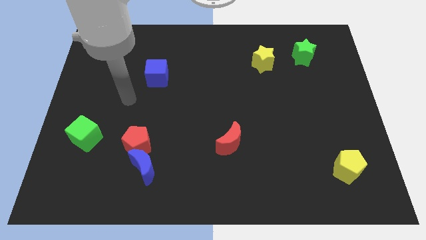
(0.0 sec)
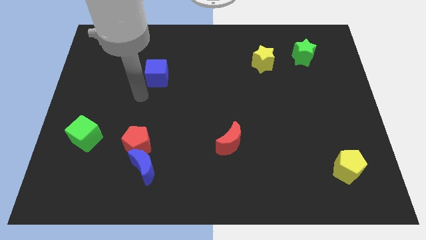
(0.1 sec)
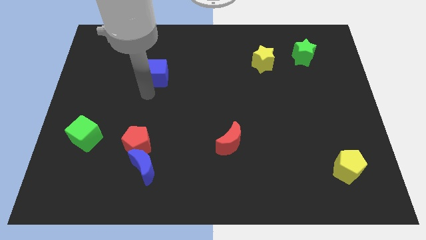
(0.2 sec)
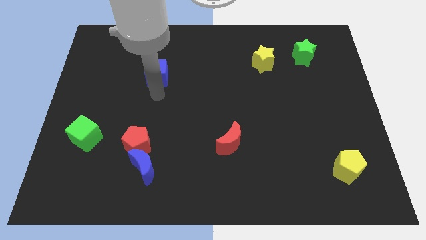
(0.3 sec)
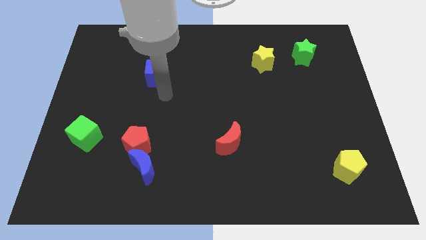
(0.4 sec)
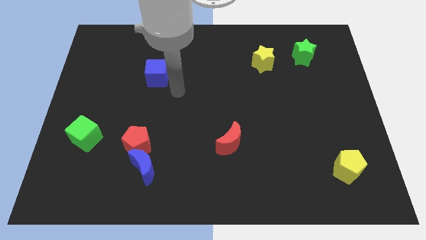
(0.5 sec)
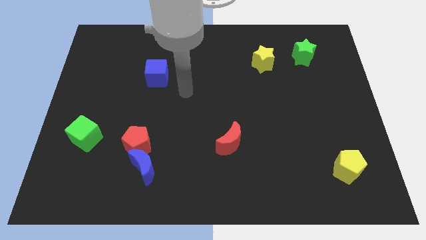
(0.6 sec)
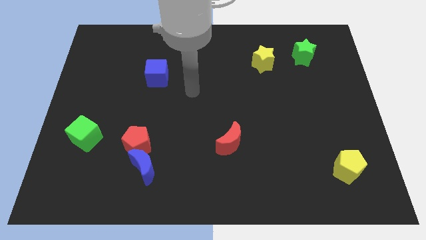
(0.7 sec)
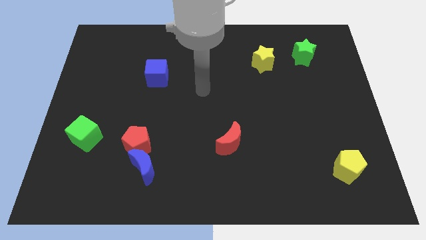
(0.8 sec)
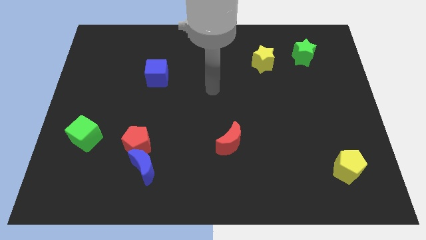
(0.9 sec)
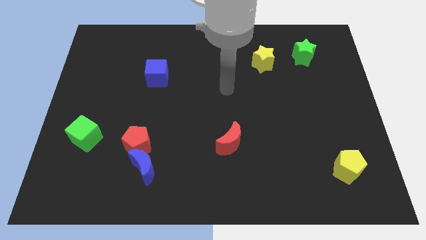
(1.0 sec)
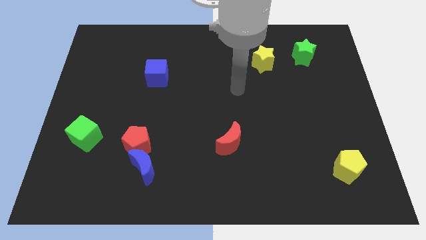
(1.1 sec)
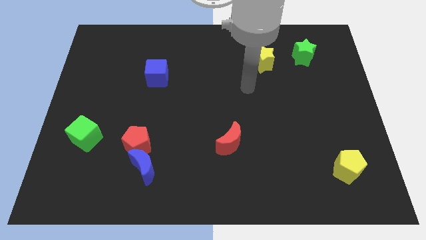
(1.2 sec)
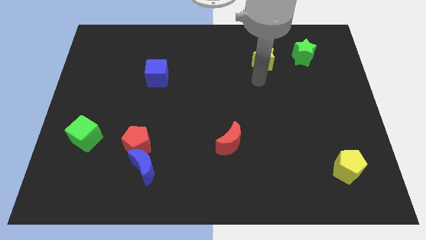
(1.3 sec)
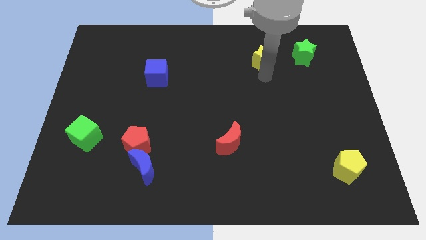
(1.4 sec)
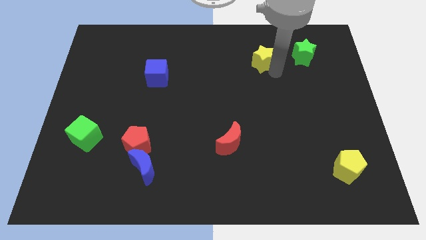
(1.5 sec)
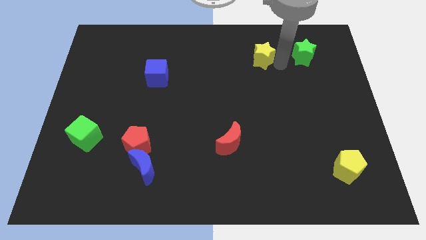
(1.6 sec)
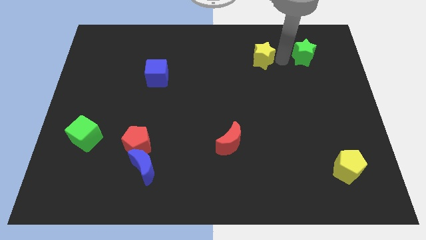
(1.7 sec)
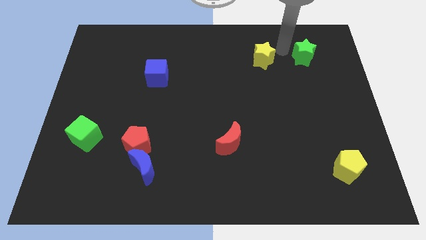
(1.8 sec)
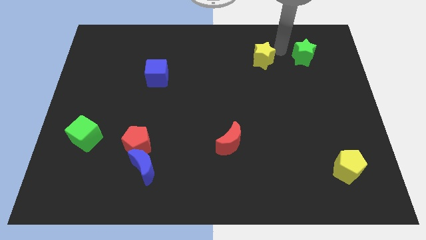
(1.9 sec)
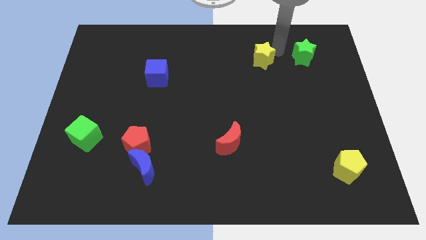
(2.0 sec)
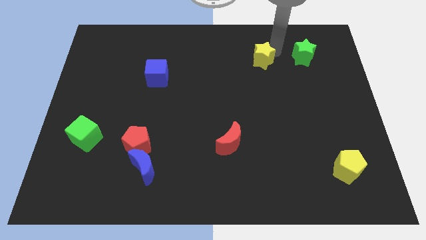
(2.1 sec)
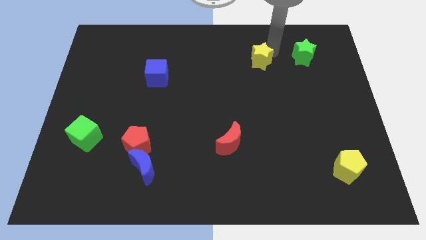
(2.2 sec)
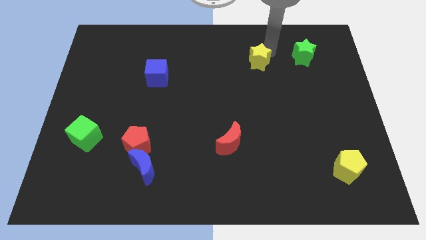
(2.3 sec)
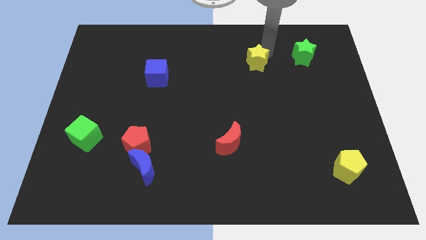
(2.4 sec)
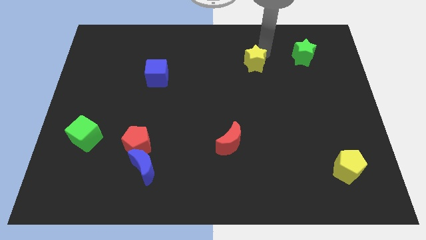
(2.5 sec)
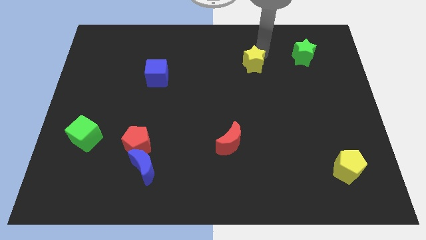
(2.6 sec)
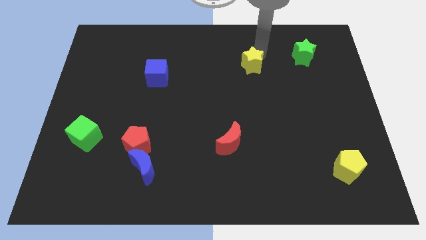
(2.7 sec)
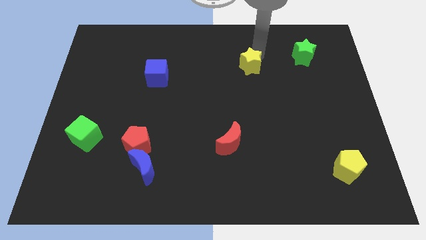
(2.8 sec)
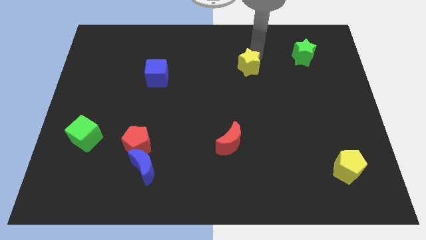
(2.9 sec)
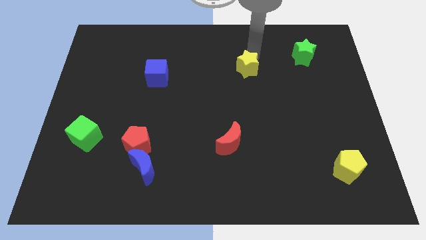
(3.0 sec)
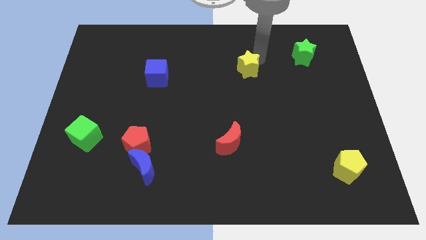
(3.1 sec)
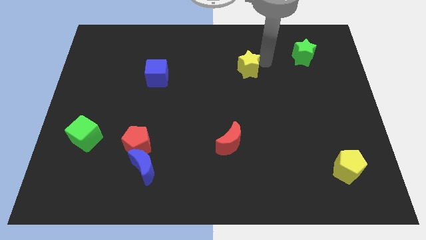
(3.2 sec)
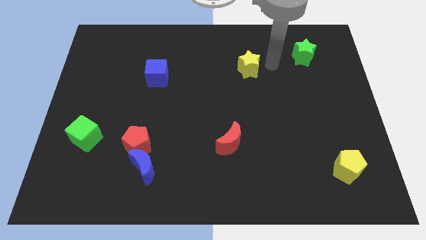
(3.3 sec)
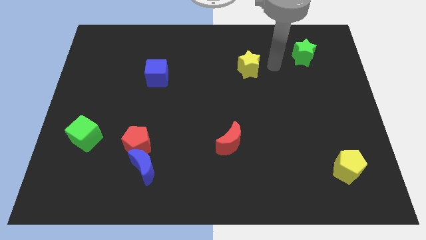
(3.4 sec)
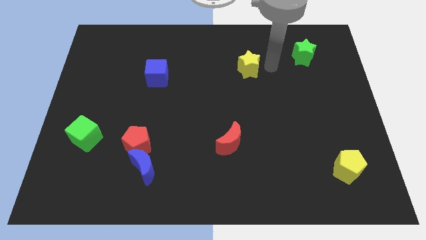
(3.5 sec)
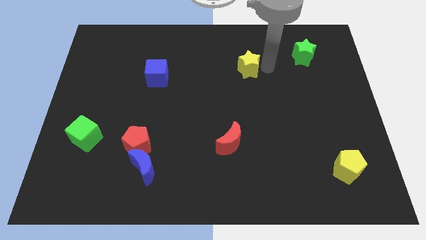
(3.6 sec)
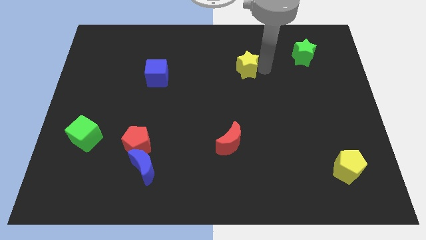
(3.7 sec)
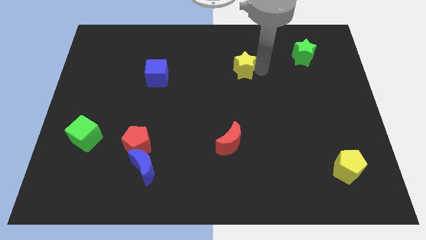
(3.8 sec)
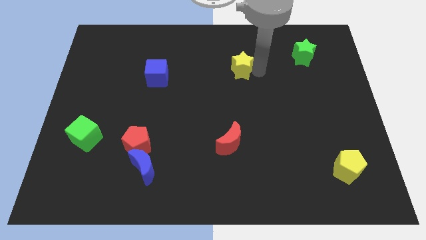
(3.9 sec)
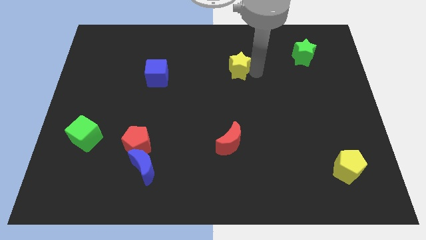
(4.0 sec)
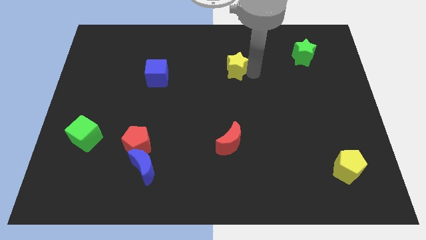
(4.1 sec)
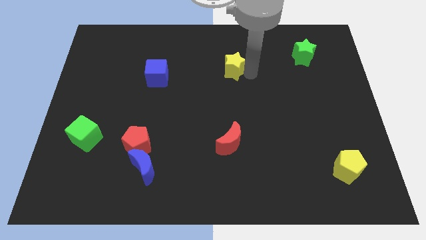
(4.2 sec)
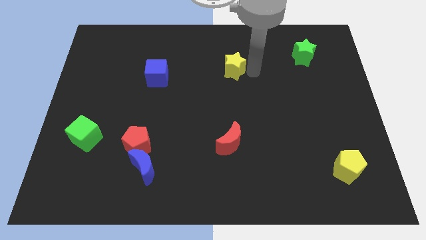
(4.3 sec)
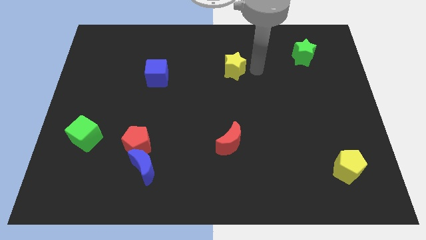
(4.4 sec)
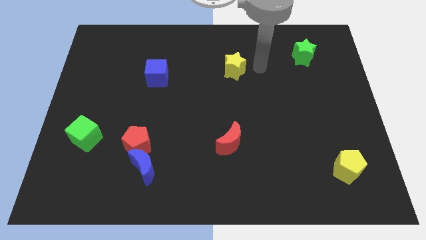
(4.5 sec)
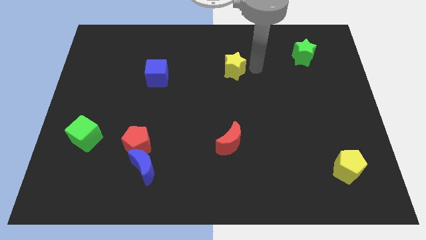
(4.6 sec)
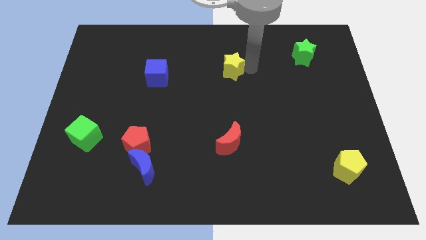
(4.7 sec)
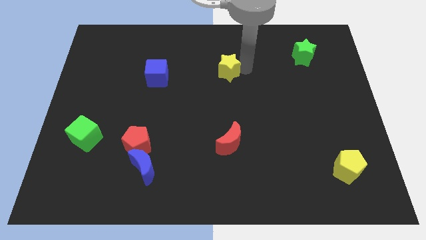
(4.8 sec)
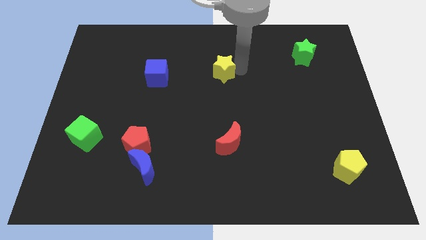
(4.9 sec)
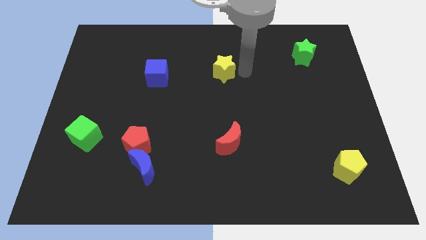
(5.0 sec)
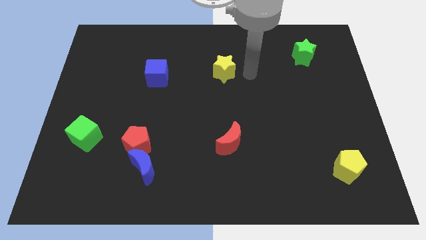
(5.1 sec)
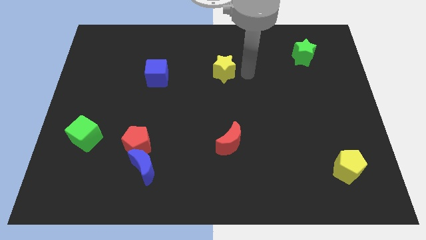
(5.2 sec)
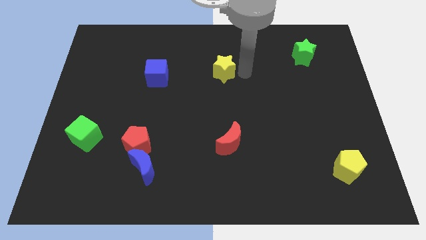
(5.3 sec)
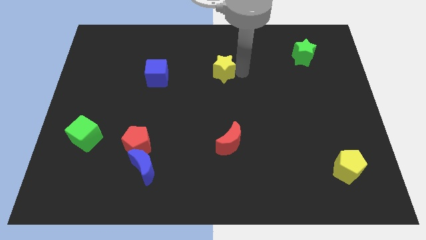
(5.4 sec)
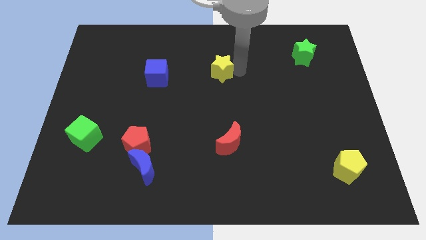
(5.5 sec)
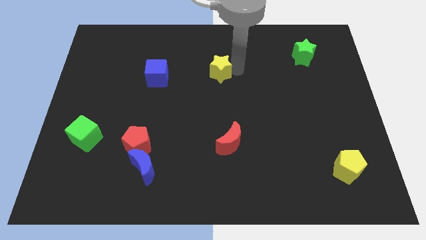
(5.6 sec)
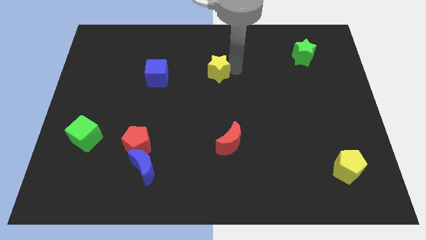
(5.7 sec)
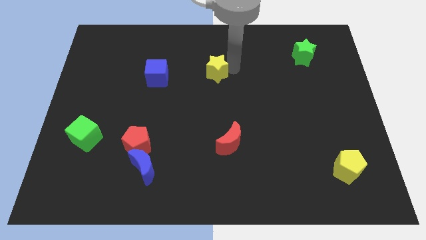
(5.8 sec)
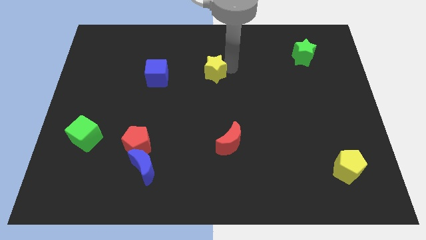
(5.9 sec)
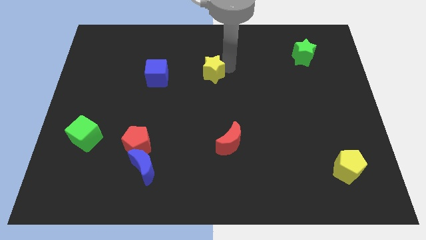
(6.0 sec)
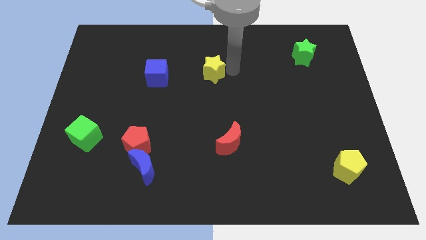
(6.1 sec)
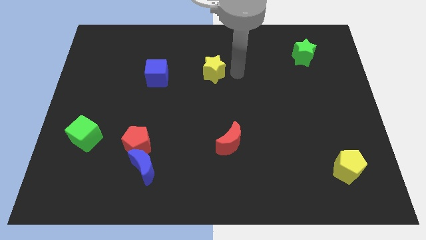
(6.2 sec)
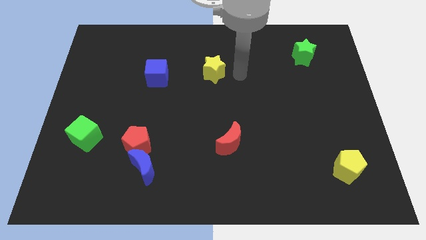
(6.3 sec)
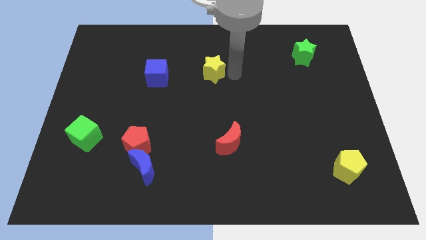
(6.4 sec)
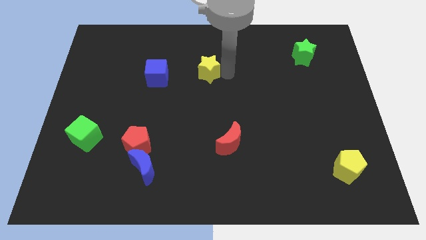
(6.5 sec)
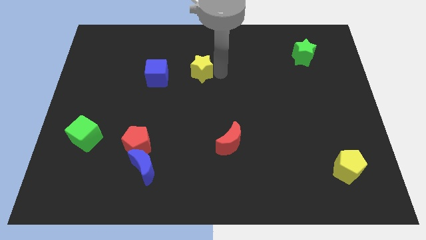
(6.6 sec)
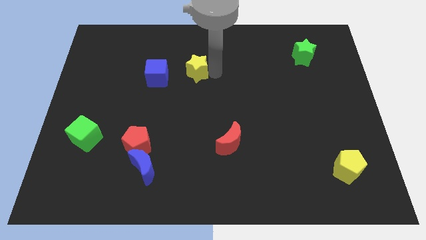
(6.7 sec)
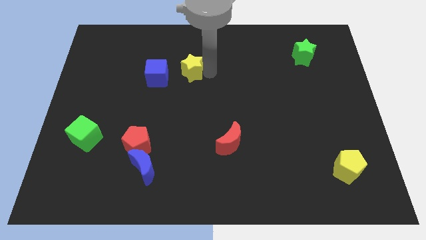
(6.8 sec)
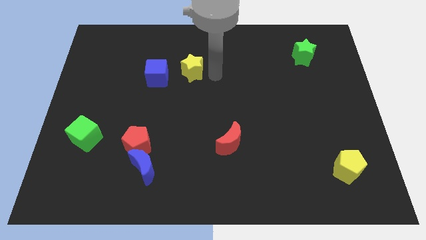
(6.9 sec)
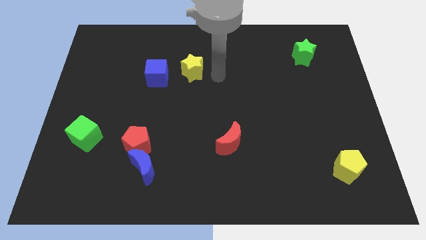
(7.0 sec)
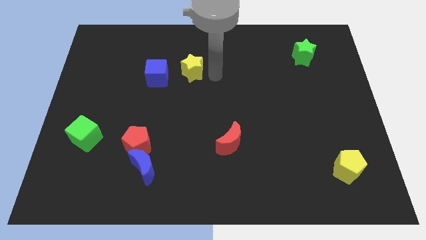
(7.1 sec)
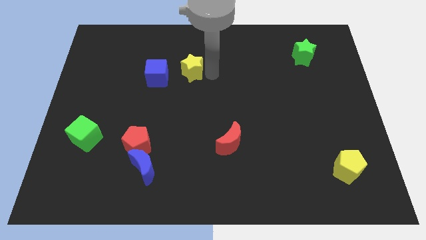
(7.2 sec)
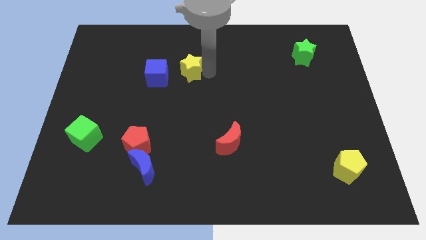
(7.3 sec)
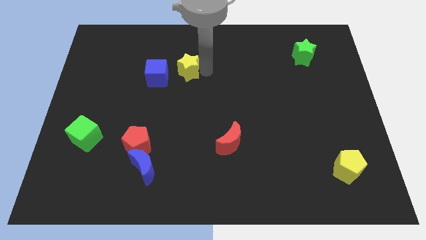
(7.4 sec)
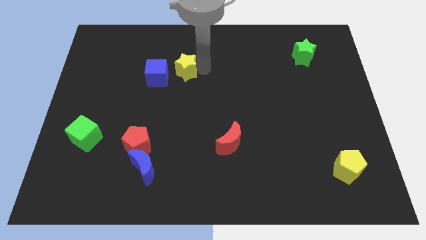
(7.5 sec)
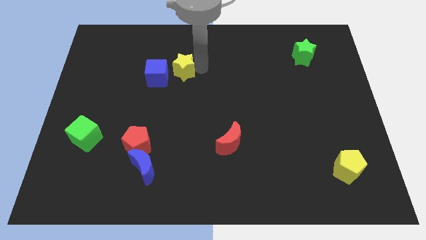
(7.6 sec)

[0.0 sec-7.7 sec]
slide the yellow star to the left

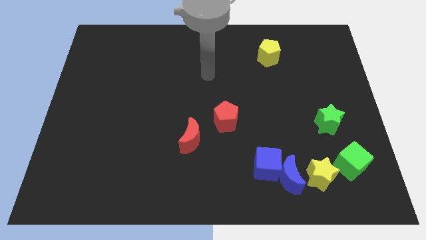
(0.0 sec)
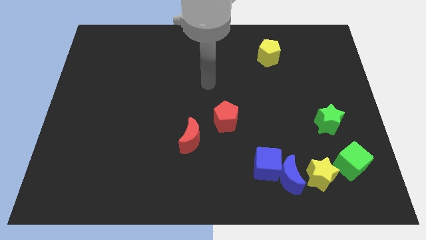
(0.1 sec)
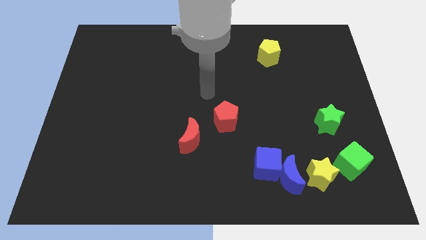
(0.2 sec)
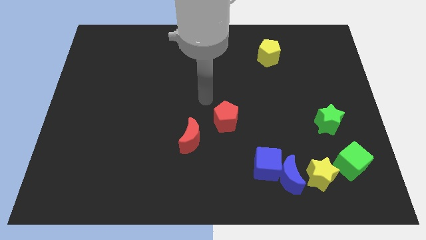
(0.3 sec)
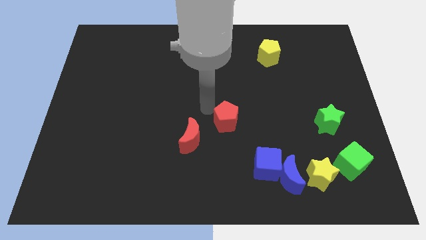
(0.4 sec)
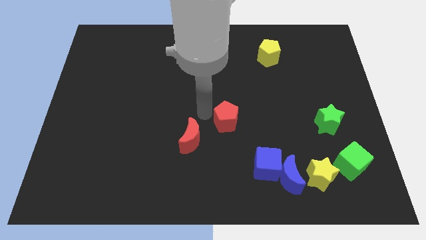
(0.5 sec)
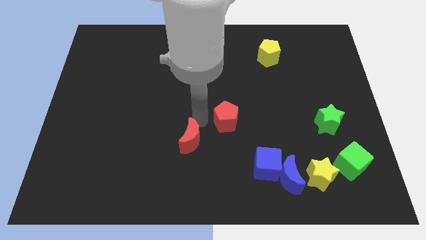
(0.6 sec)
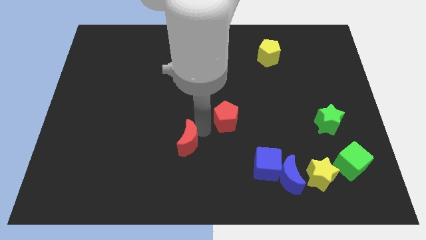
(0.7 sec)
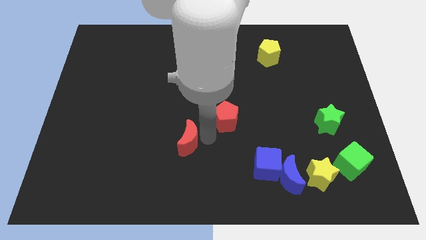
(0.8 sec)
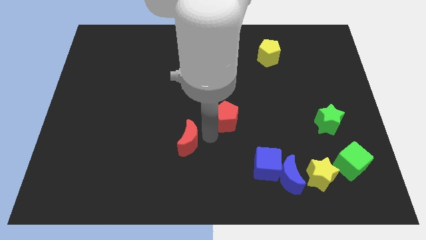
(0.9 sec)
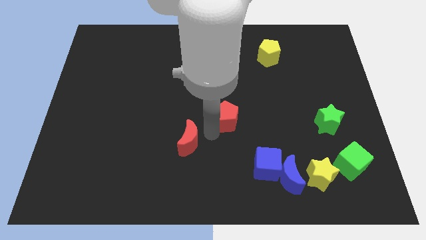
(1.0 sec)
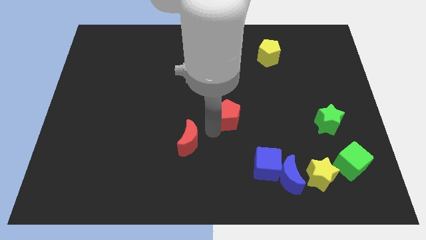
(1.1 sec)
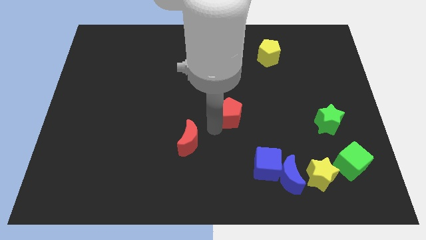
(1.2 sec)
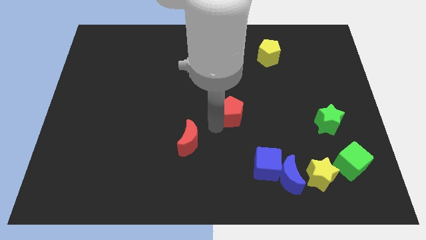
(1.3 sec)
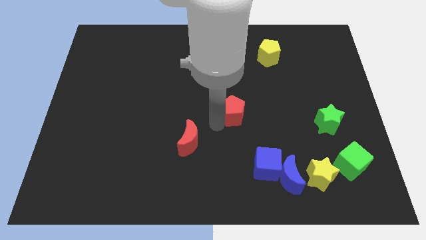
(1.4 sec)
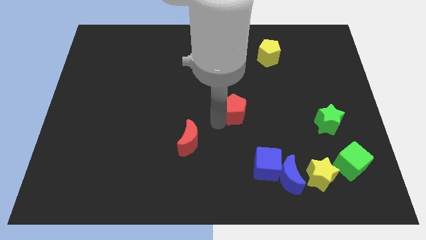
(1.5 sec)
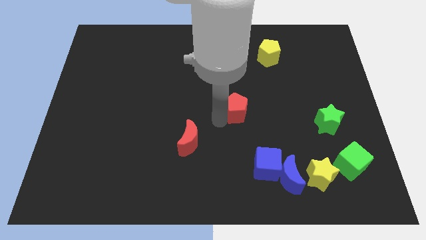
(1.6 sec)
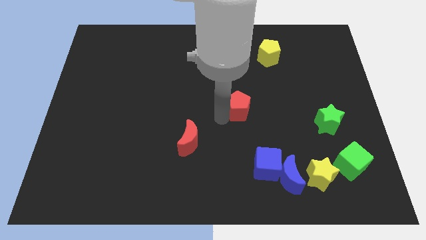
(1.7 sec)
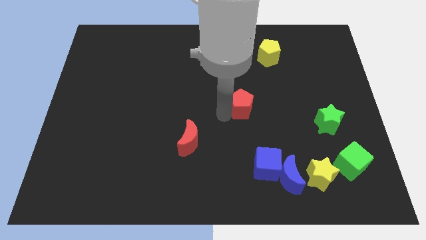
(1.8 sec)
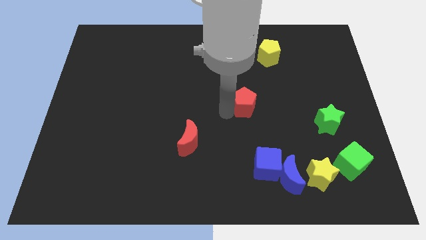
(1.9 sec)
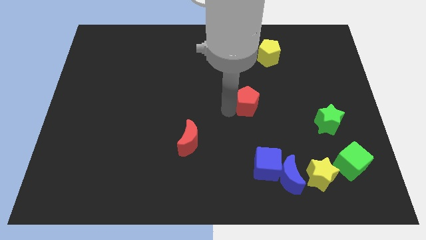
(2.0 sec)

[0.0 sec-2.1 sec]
move the red pentagon upwards and right diagonally slightly
